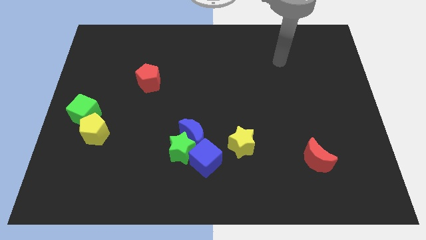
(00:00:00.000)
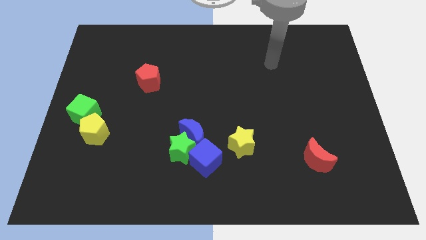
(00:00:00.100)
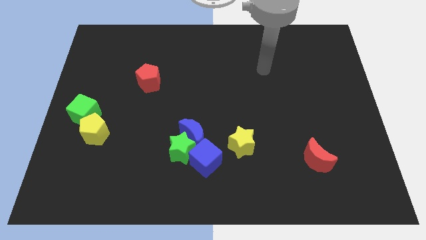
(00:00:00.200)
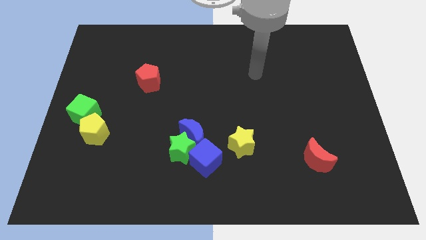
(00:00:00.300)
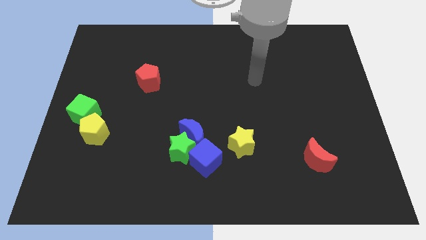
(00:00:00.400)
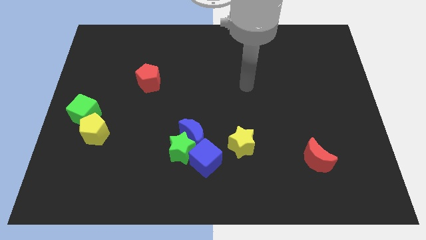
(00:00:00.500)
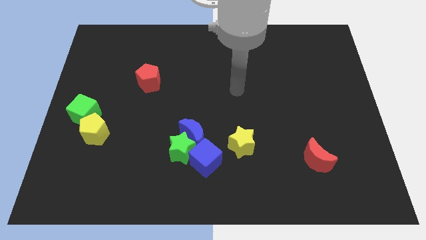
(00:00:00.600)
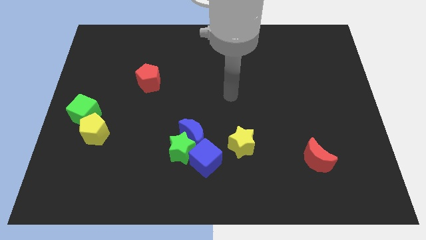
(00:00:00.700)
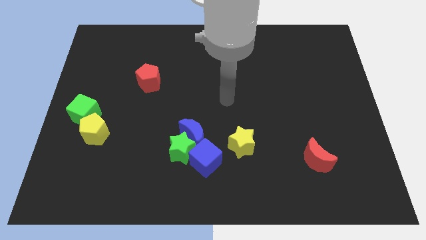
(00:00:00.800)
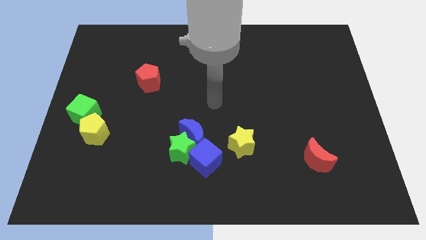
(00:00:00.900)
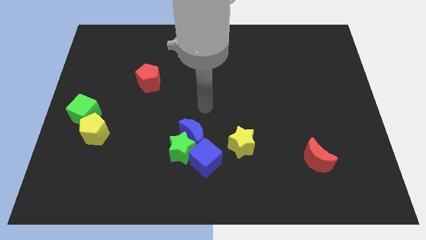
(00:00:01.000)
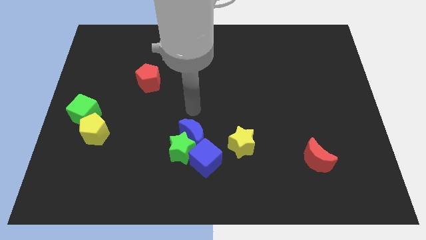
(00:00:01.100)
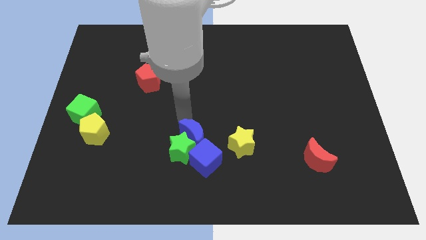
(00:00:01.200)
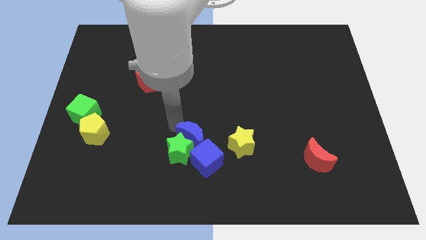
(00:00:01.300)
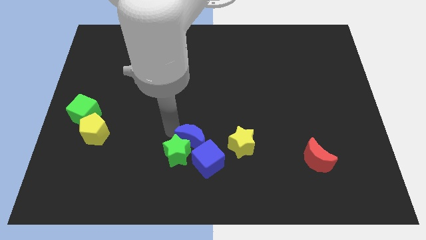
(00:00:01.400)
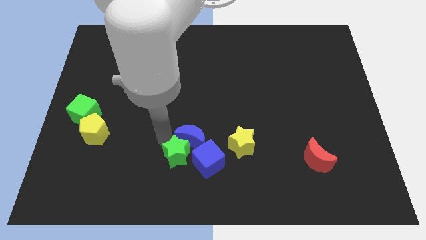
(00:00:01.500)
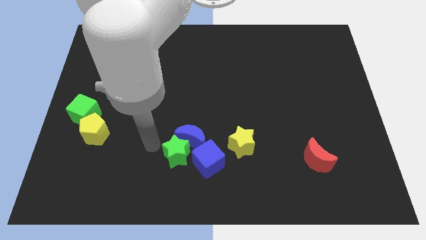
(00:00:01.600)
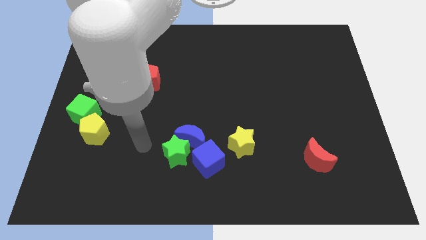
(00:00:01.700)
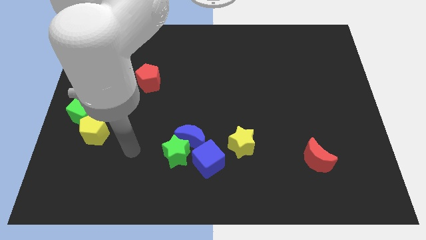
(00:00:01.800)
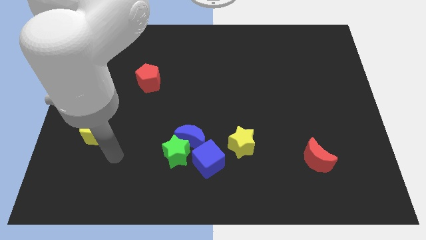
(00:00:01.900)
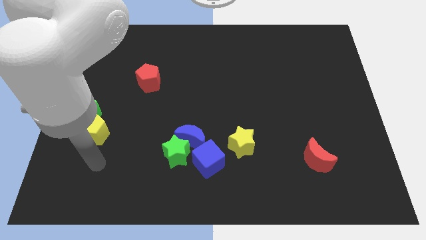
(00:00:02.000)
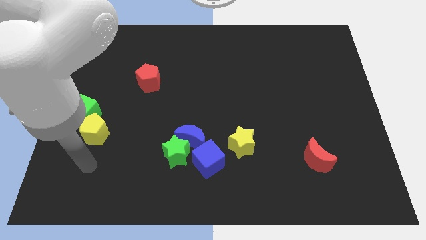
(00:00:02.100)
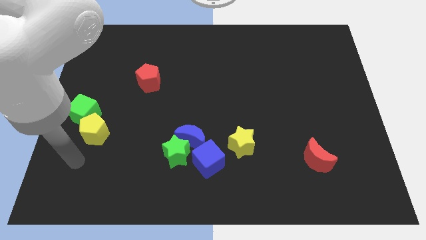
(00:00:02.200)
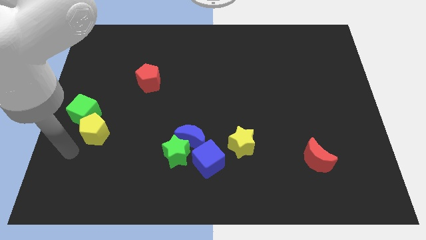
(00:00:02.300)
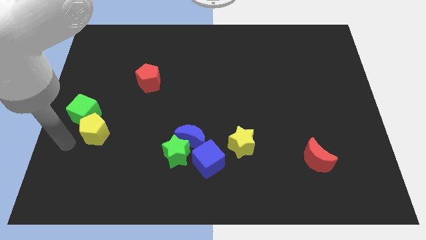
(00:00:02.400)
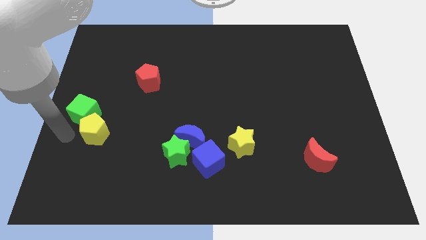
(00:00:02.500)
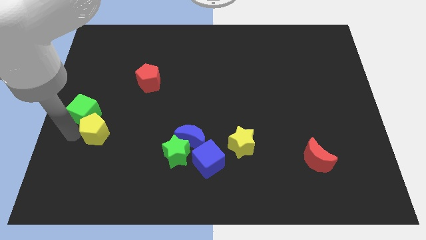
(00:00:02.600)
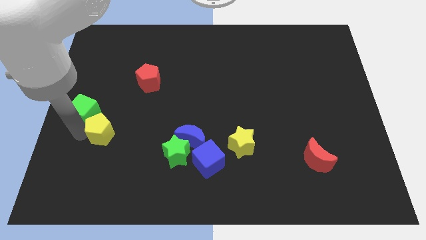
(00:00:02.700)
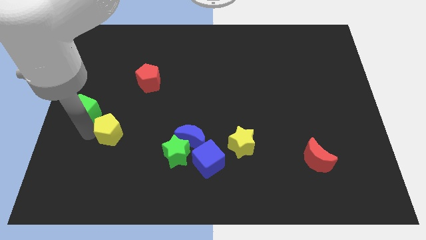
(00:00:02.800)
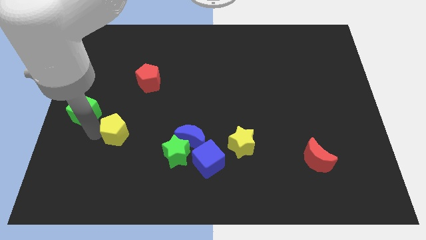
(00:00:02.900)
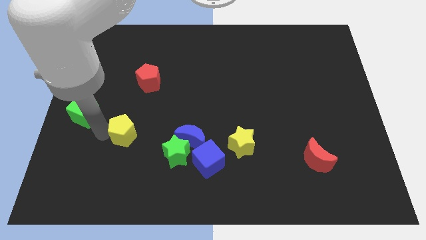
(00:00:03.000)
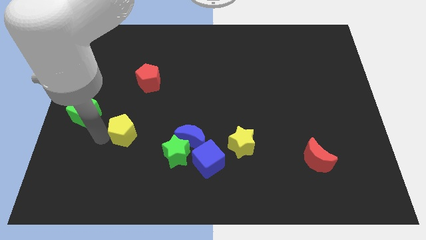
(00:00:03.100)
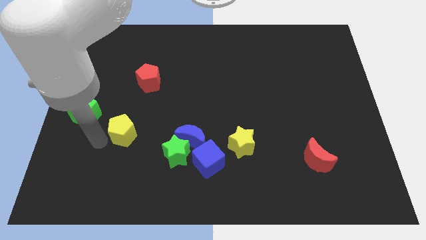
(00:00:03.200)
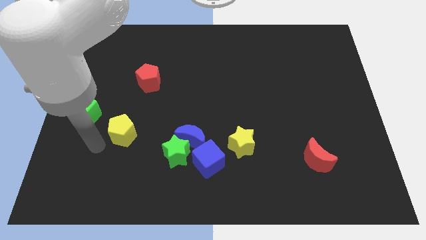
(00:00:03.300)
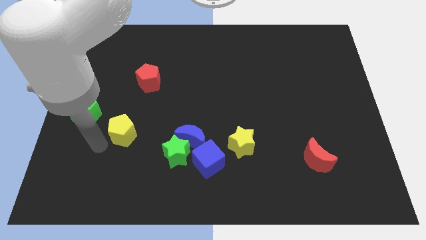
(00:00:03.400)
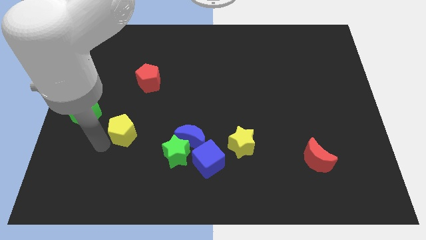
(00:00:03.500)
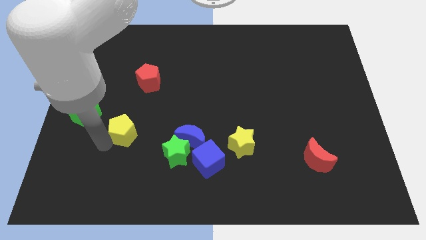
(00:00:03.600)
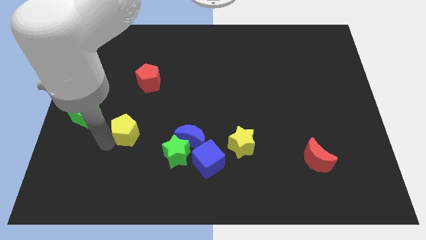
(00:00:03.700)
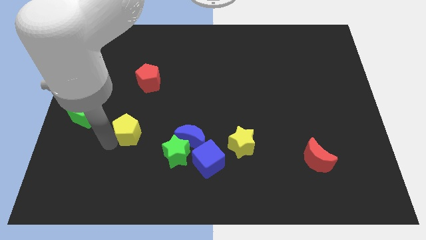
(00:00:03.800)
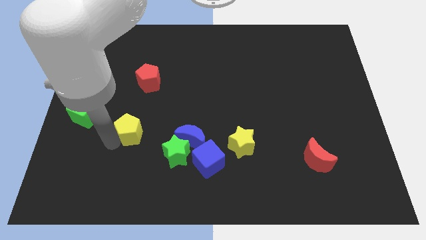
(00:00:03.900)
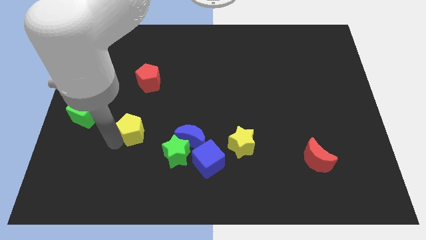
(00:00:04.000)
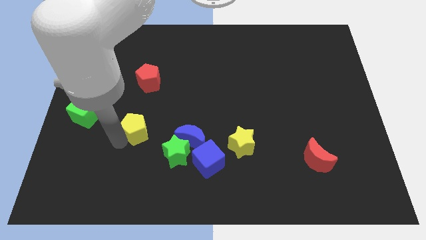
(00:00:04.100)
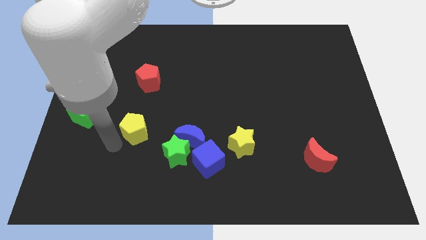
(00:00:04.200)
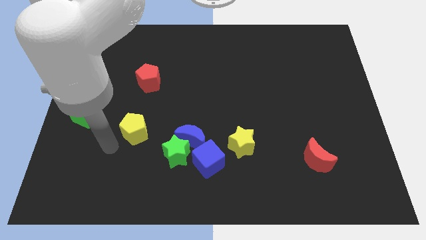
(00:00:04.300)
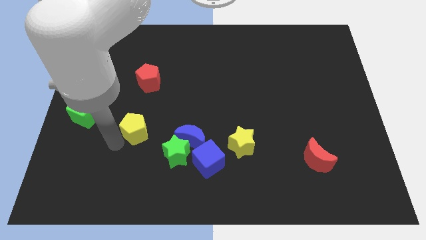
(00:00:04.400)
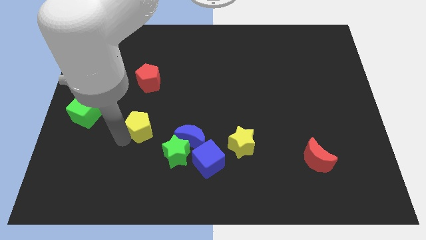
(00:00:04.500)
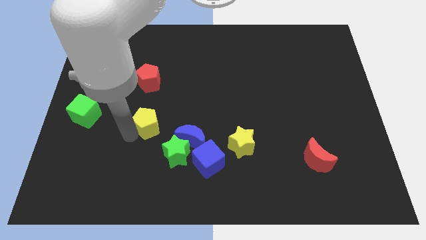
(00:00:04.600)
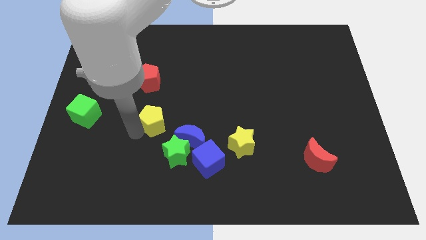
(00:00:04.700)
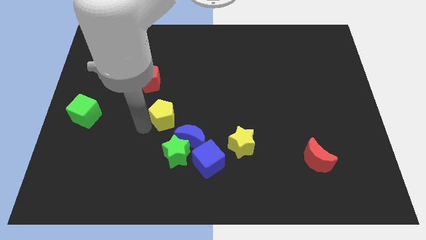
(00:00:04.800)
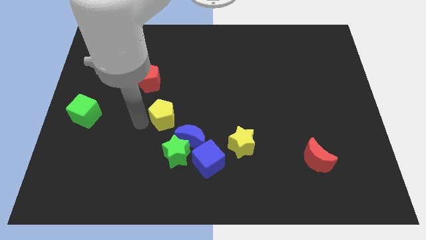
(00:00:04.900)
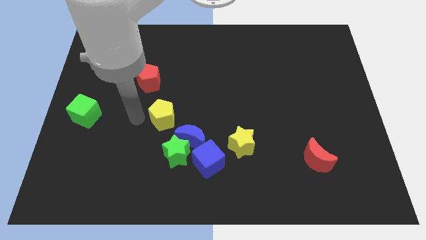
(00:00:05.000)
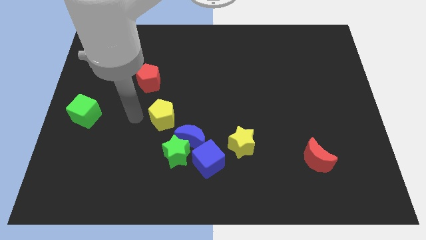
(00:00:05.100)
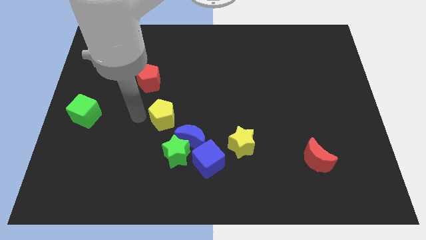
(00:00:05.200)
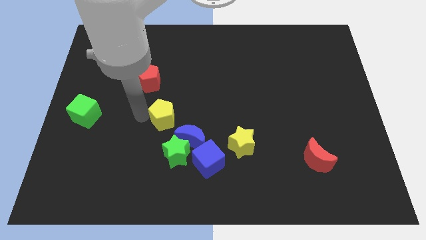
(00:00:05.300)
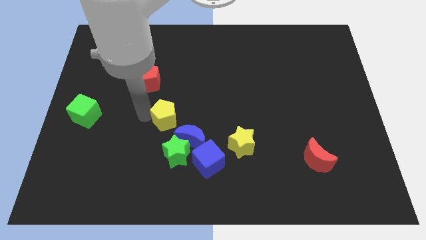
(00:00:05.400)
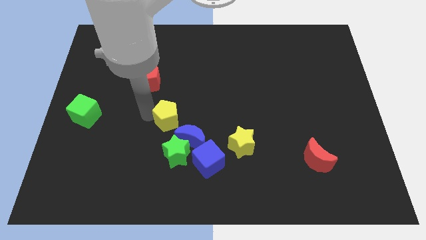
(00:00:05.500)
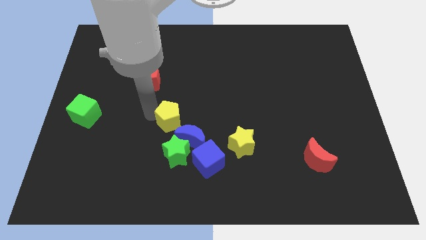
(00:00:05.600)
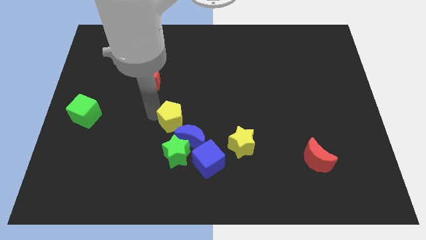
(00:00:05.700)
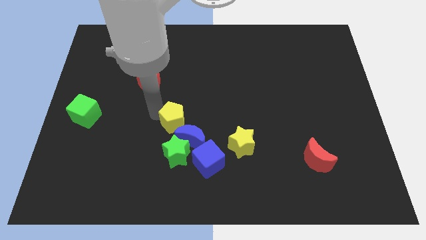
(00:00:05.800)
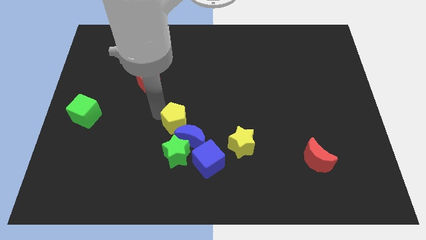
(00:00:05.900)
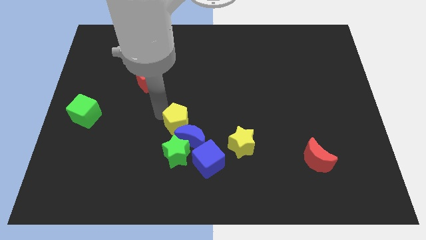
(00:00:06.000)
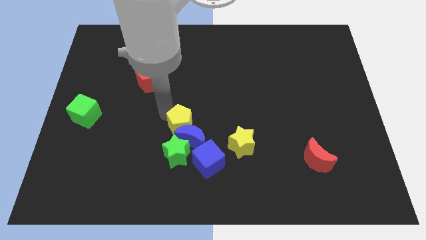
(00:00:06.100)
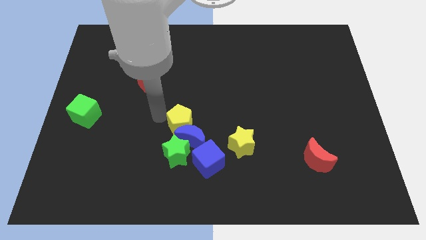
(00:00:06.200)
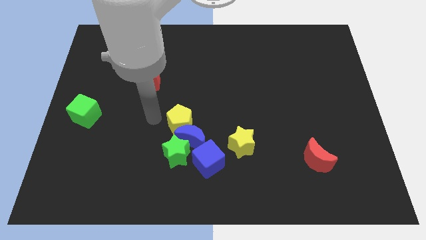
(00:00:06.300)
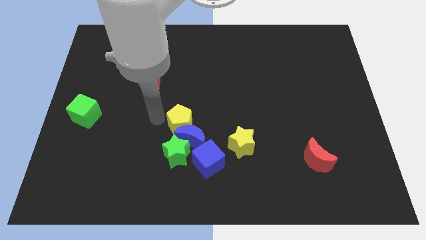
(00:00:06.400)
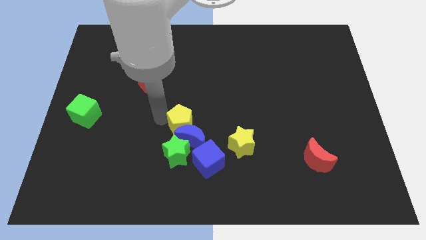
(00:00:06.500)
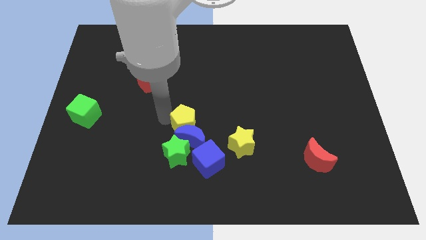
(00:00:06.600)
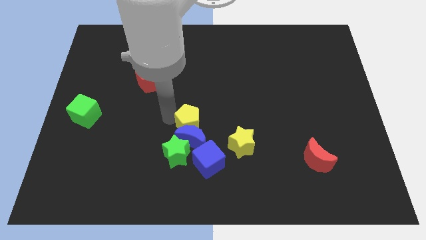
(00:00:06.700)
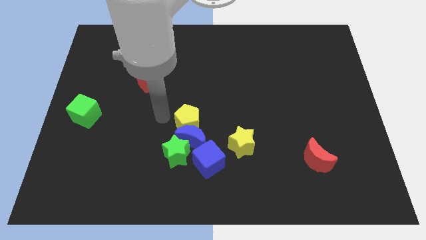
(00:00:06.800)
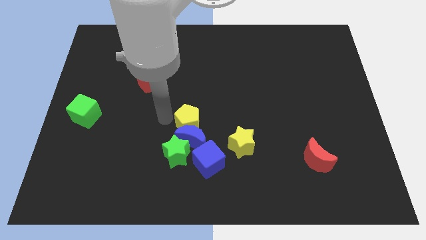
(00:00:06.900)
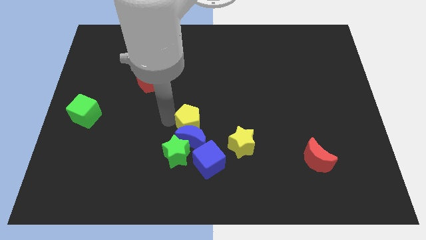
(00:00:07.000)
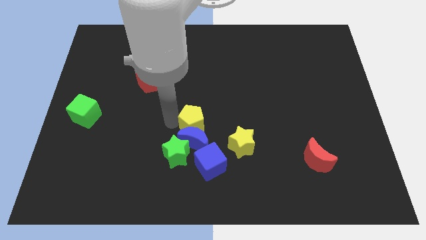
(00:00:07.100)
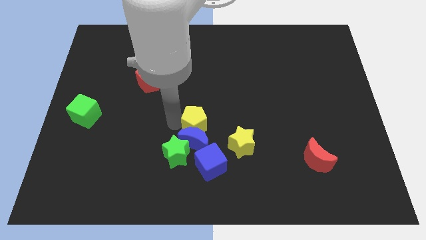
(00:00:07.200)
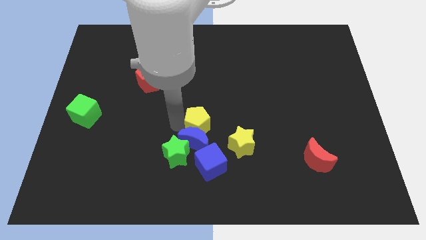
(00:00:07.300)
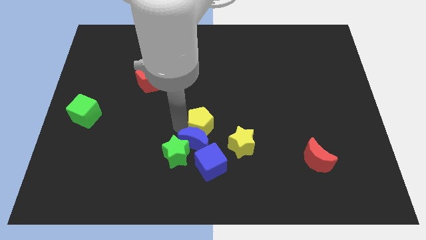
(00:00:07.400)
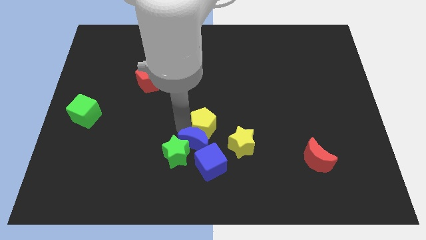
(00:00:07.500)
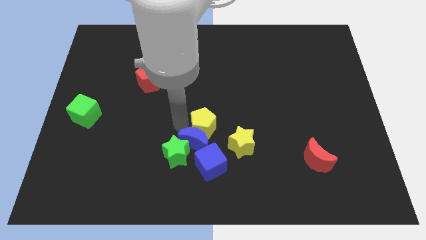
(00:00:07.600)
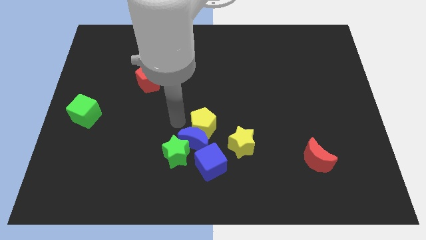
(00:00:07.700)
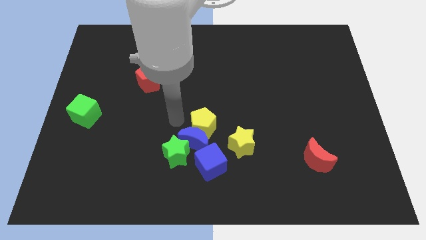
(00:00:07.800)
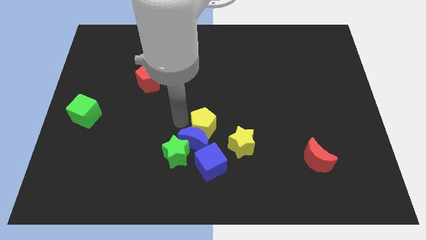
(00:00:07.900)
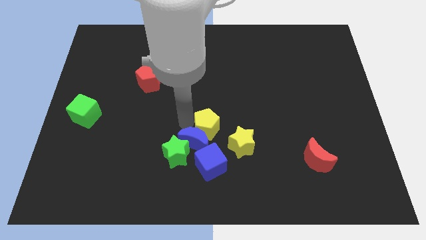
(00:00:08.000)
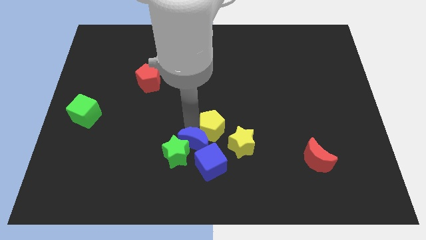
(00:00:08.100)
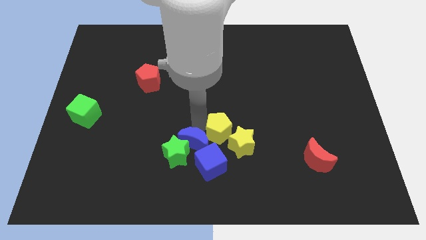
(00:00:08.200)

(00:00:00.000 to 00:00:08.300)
push the yellow pentagon to the yellow star
